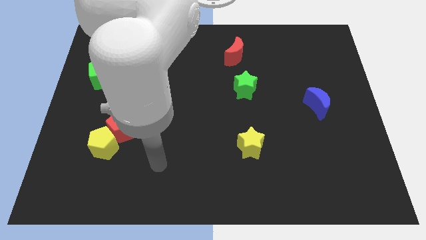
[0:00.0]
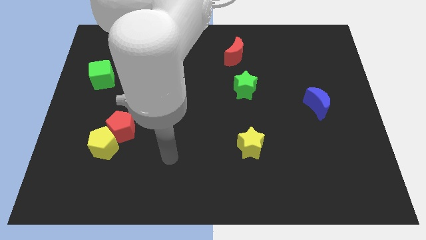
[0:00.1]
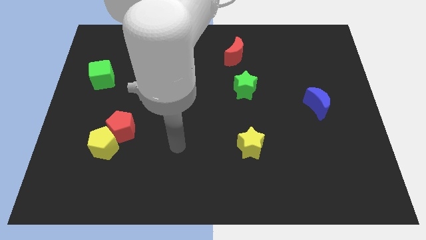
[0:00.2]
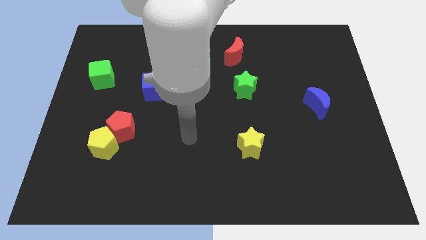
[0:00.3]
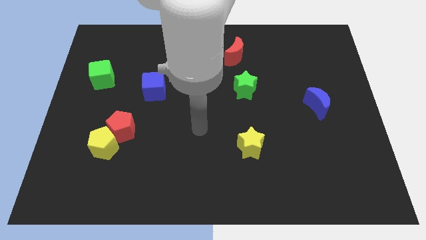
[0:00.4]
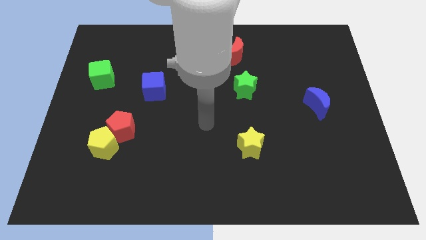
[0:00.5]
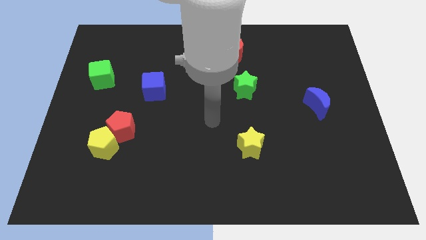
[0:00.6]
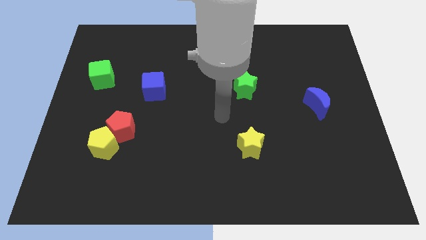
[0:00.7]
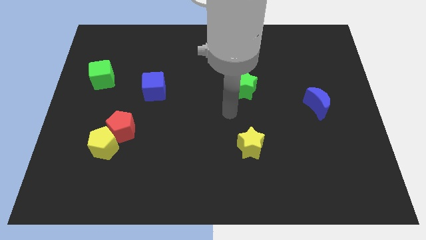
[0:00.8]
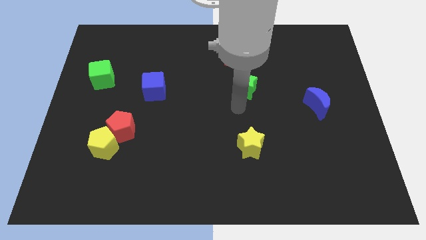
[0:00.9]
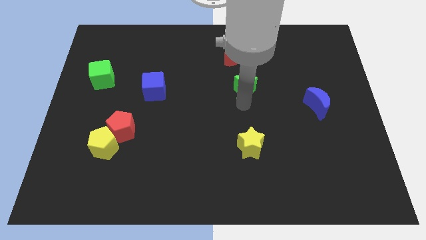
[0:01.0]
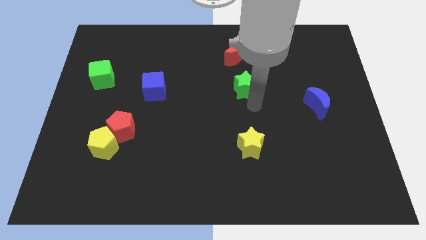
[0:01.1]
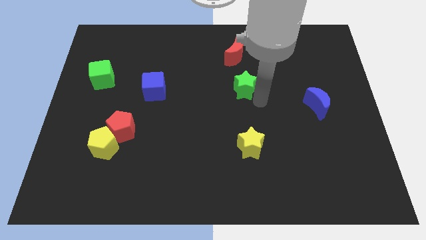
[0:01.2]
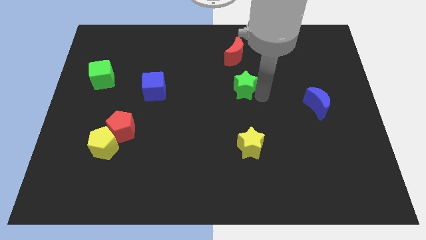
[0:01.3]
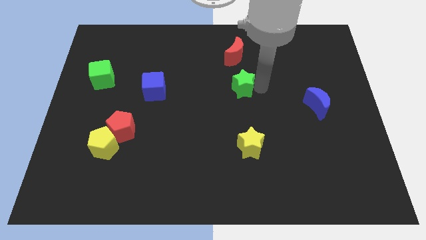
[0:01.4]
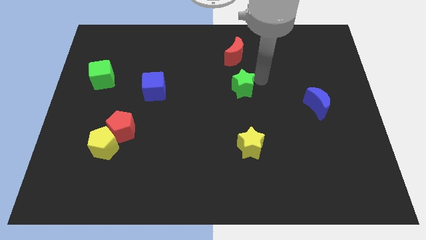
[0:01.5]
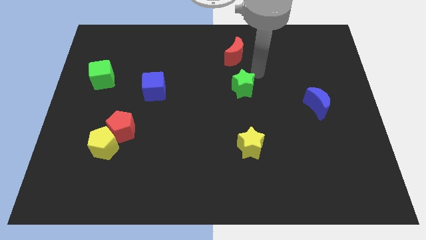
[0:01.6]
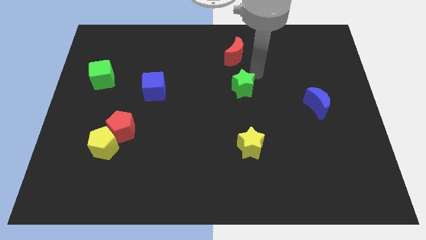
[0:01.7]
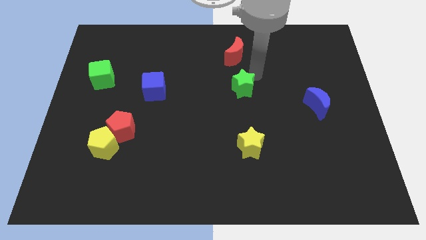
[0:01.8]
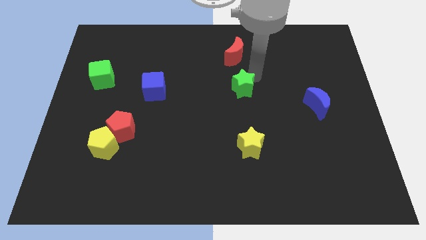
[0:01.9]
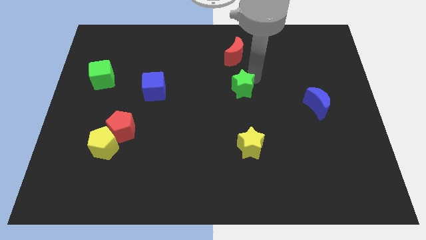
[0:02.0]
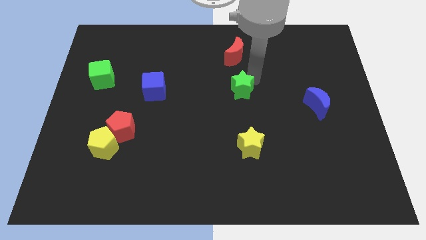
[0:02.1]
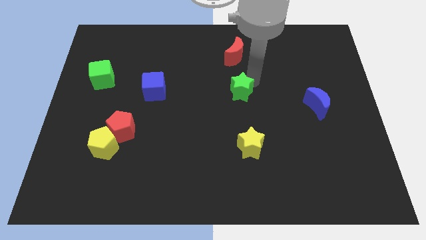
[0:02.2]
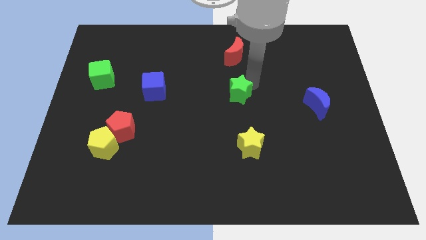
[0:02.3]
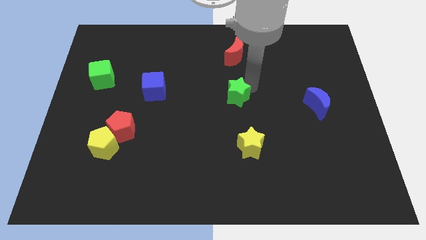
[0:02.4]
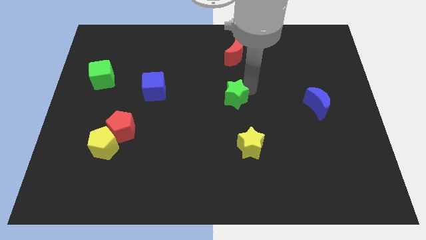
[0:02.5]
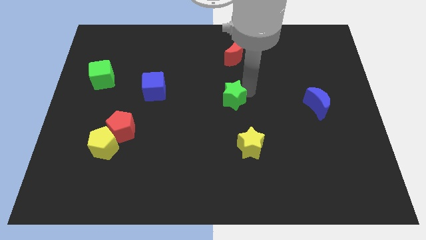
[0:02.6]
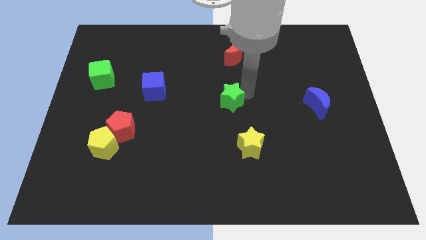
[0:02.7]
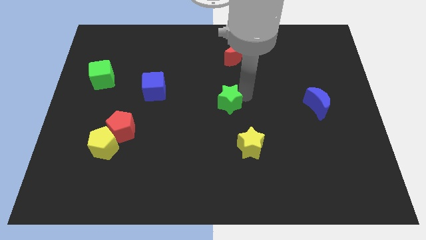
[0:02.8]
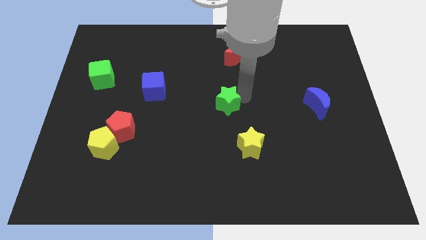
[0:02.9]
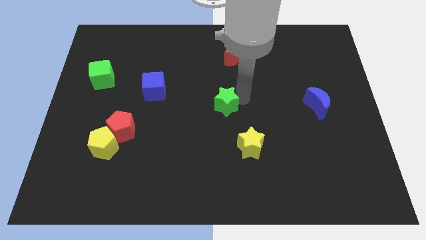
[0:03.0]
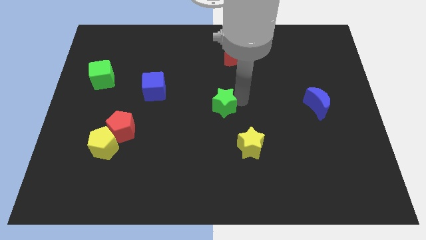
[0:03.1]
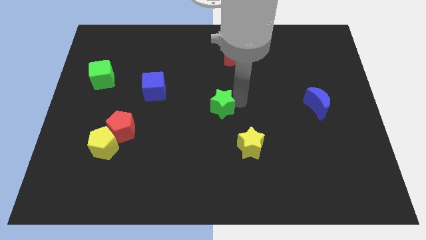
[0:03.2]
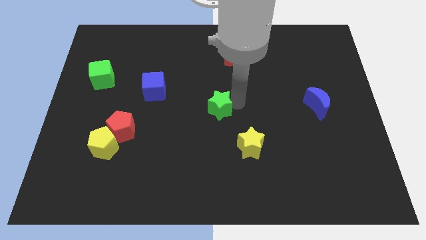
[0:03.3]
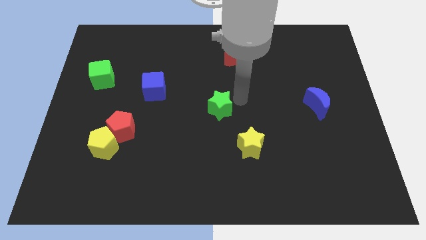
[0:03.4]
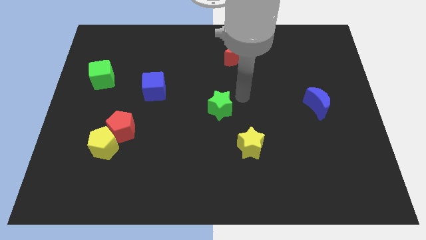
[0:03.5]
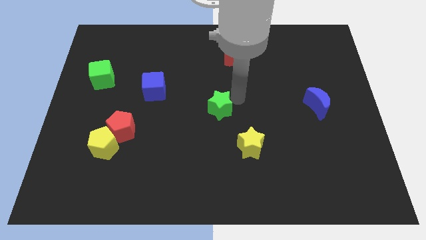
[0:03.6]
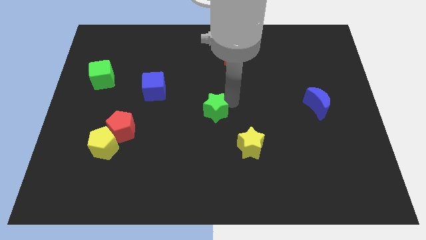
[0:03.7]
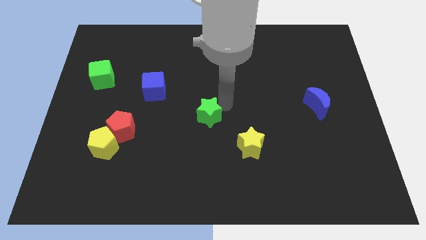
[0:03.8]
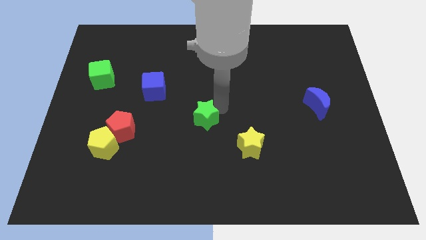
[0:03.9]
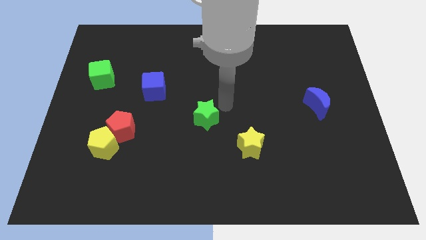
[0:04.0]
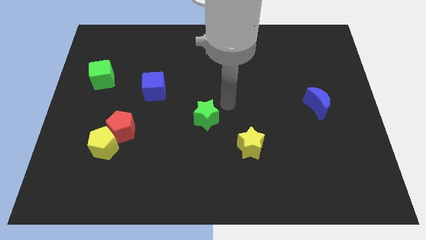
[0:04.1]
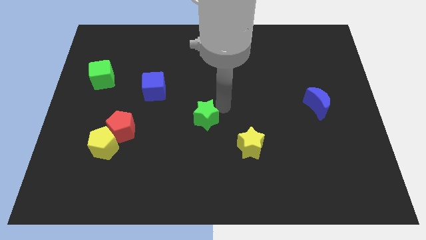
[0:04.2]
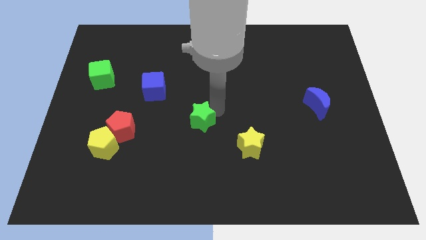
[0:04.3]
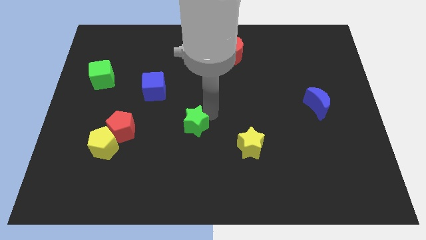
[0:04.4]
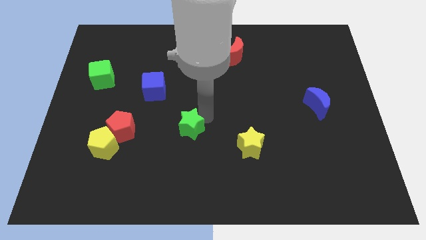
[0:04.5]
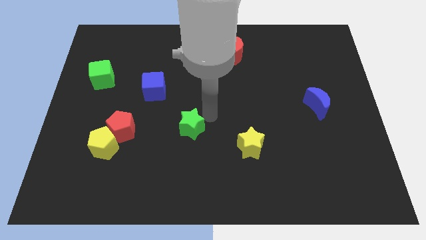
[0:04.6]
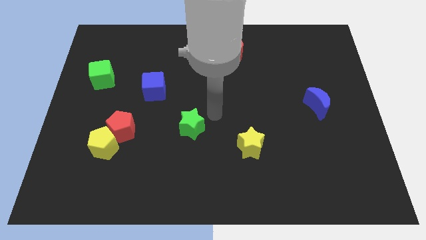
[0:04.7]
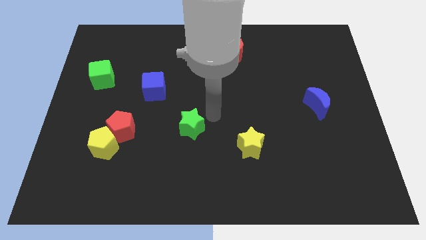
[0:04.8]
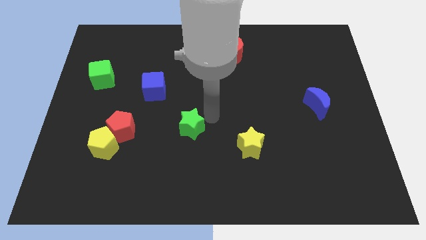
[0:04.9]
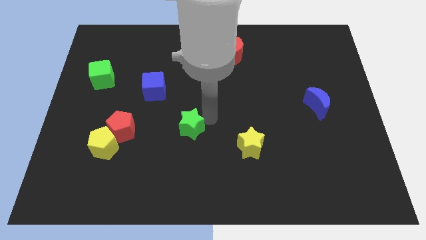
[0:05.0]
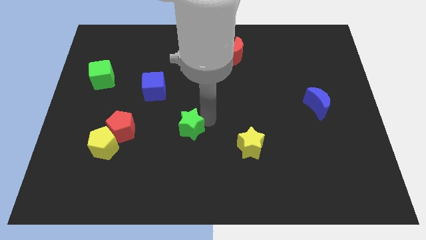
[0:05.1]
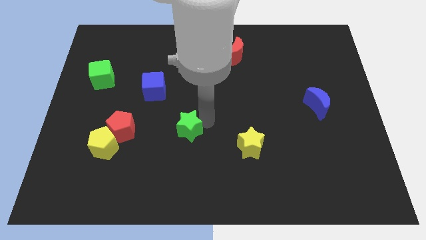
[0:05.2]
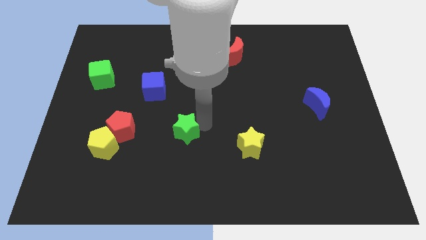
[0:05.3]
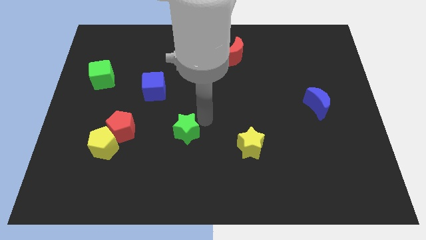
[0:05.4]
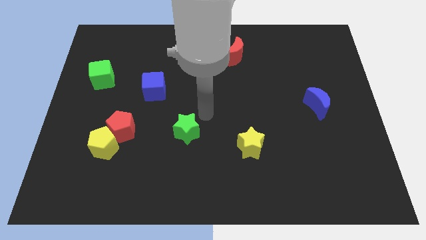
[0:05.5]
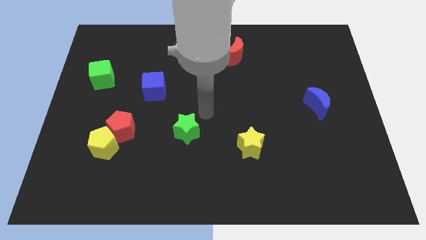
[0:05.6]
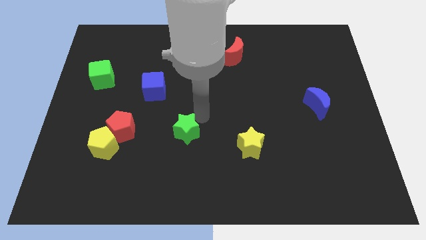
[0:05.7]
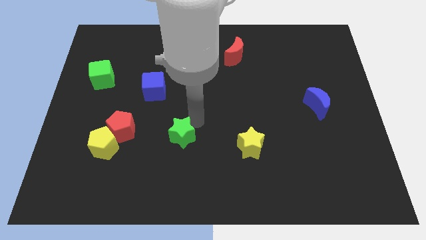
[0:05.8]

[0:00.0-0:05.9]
move the green star downwards and to the left

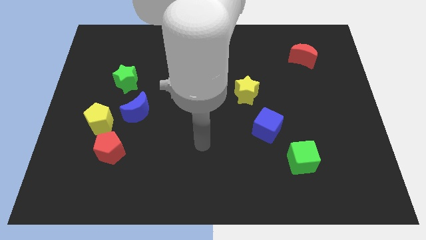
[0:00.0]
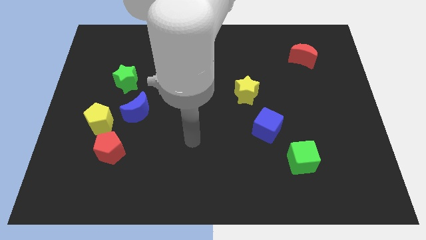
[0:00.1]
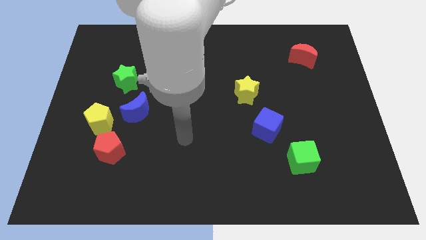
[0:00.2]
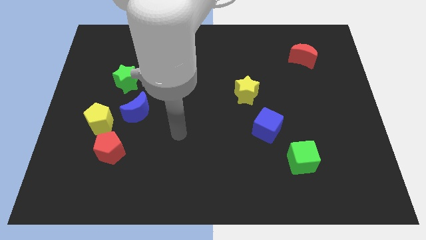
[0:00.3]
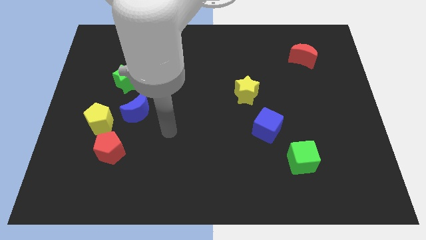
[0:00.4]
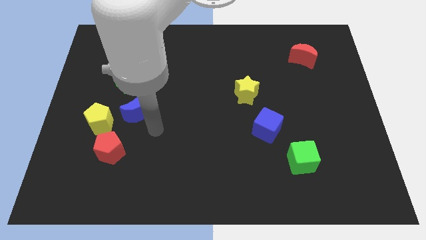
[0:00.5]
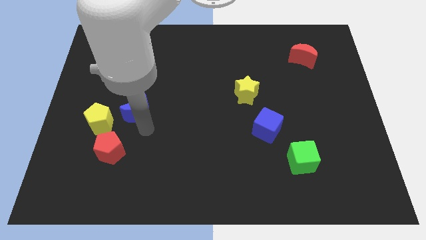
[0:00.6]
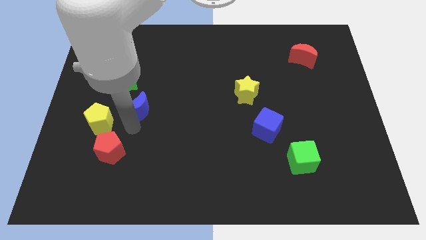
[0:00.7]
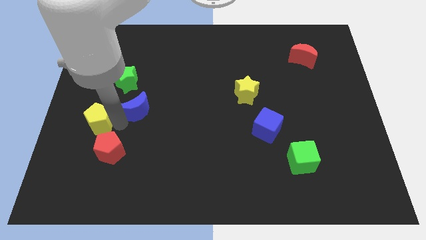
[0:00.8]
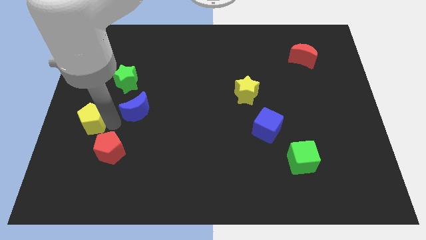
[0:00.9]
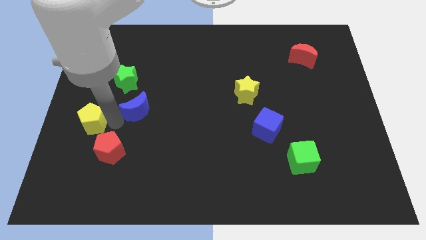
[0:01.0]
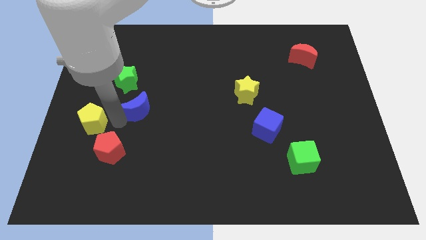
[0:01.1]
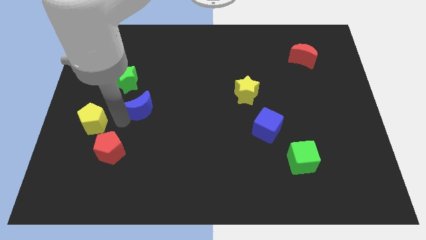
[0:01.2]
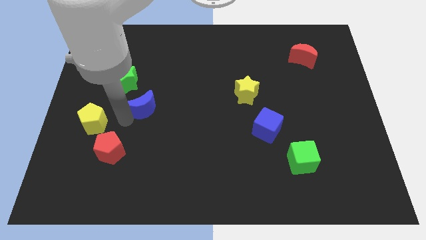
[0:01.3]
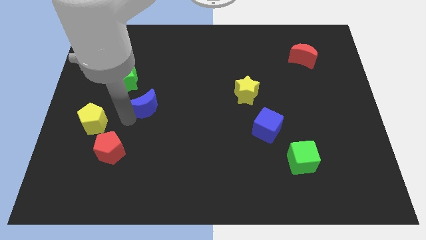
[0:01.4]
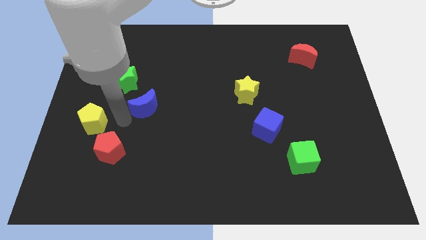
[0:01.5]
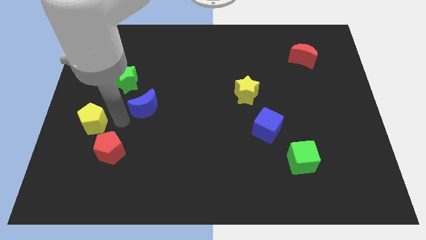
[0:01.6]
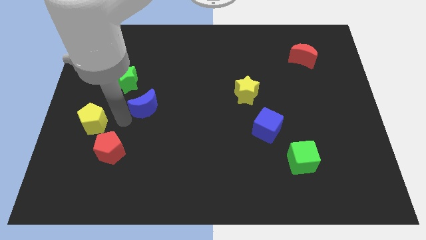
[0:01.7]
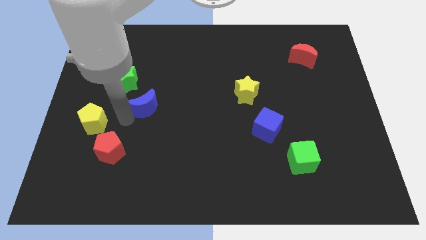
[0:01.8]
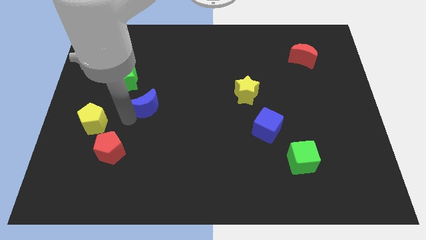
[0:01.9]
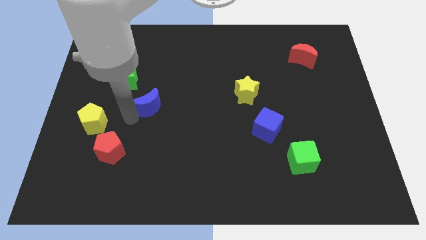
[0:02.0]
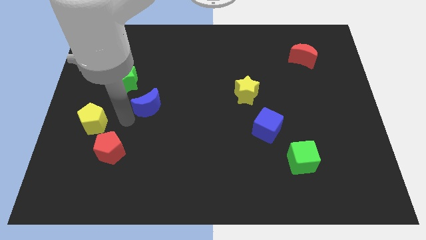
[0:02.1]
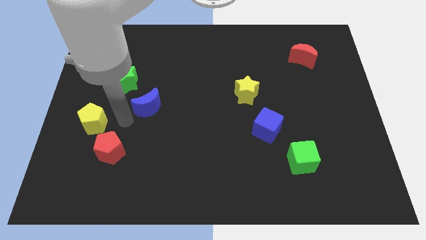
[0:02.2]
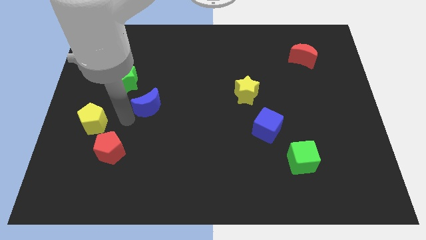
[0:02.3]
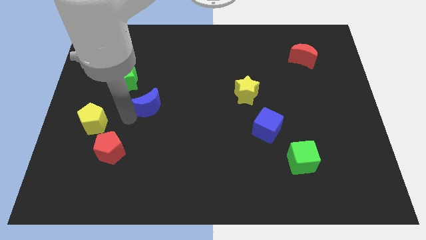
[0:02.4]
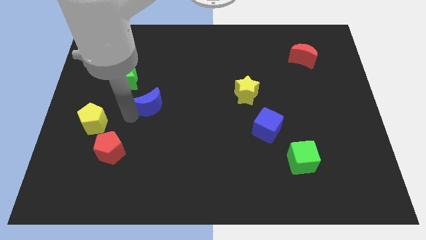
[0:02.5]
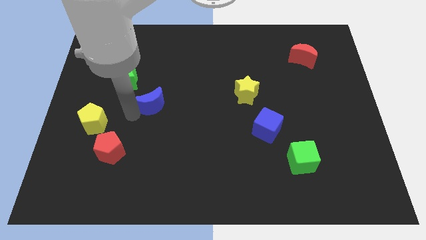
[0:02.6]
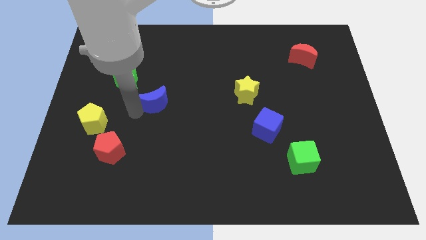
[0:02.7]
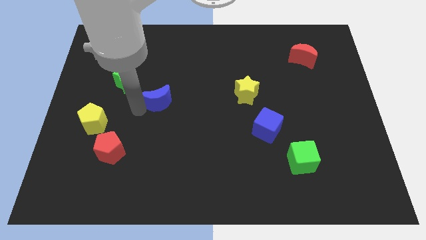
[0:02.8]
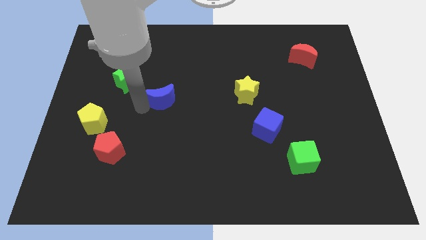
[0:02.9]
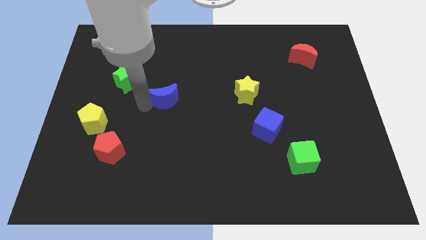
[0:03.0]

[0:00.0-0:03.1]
slide the blue moon upwards and then to the right slightly
